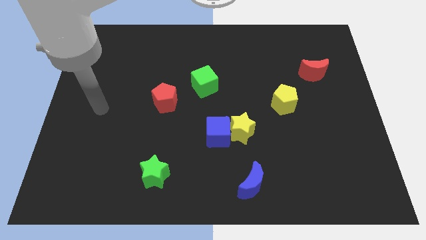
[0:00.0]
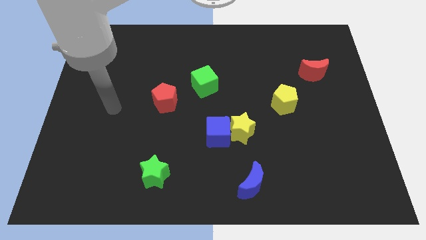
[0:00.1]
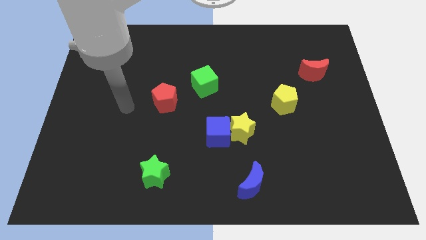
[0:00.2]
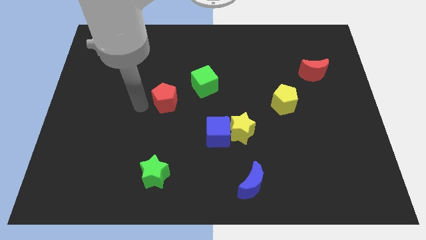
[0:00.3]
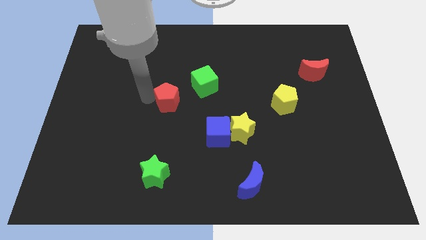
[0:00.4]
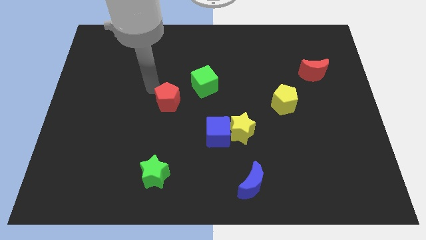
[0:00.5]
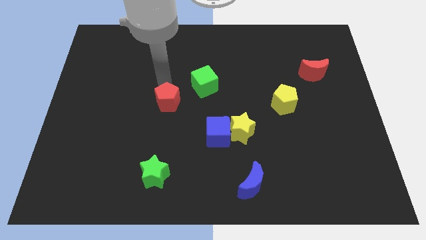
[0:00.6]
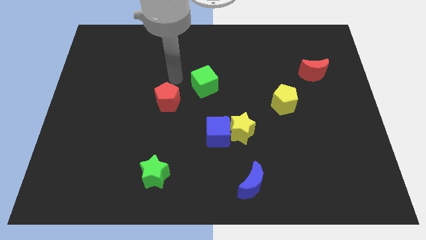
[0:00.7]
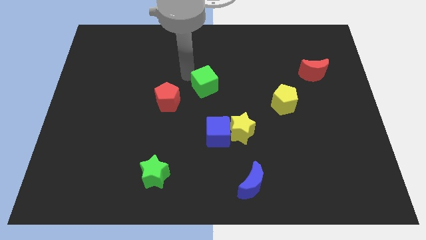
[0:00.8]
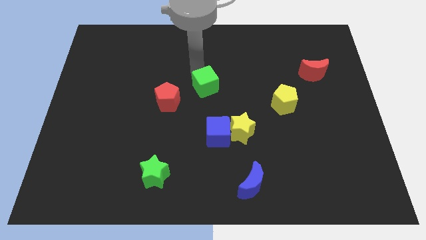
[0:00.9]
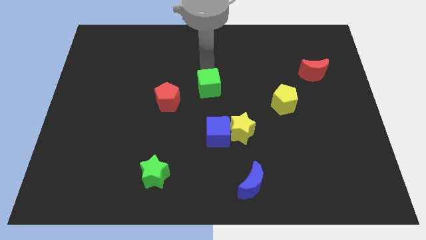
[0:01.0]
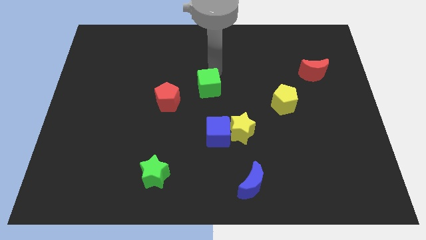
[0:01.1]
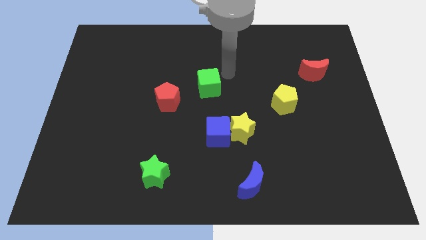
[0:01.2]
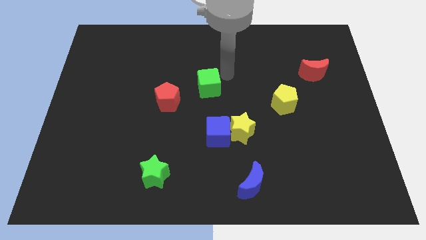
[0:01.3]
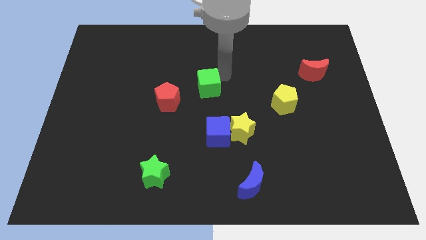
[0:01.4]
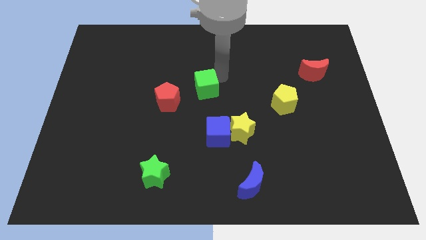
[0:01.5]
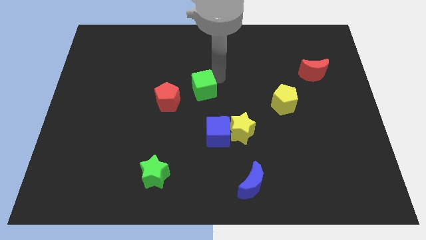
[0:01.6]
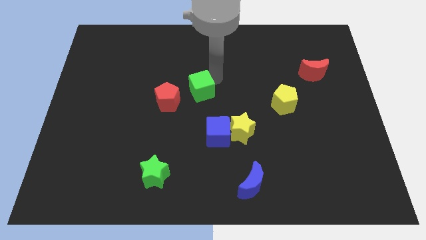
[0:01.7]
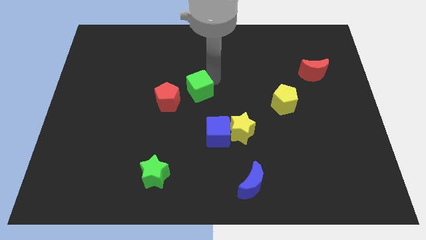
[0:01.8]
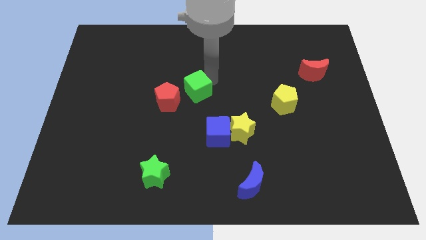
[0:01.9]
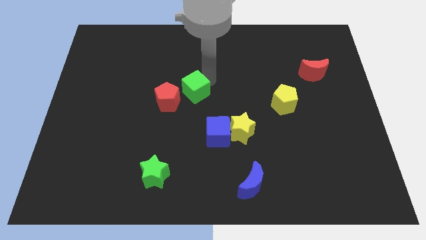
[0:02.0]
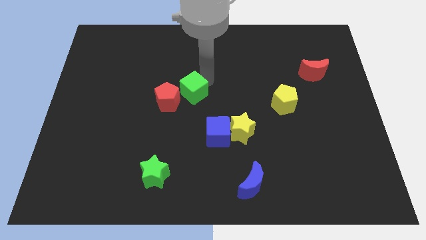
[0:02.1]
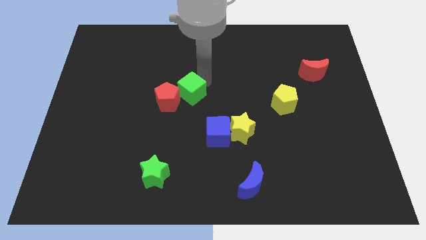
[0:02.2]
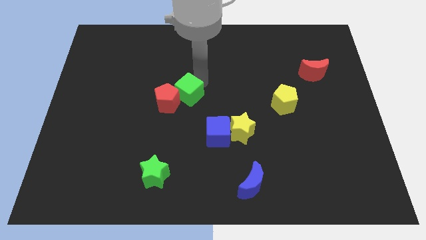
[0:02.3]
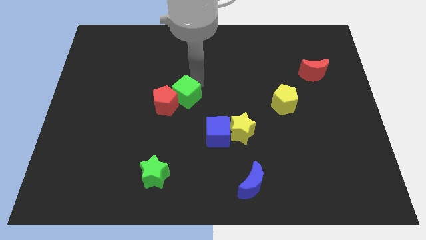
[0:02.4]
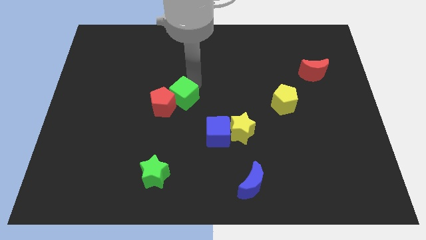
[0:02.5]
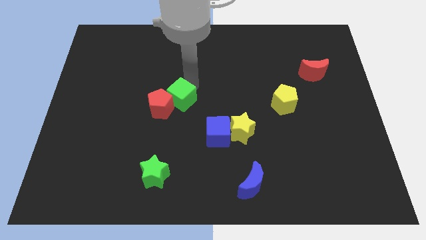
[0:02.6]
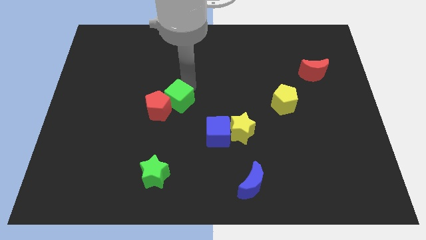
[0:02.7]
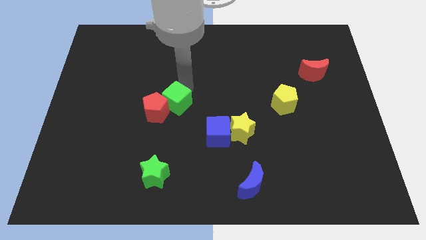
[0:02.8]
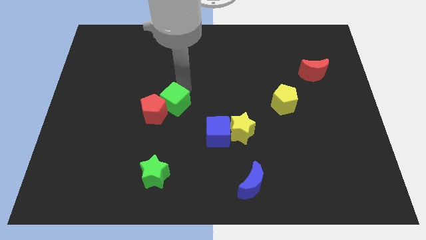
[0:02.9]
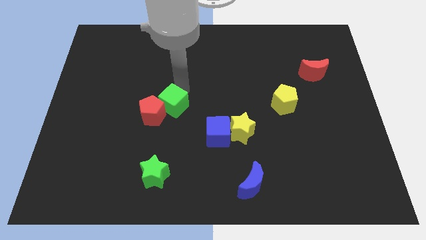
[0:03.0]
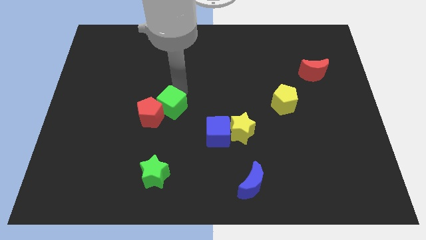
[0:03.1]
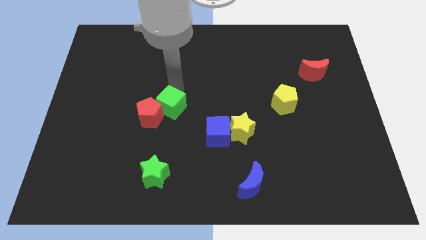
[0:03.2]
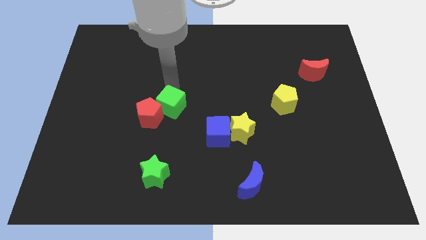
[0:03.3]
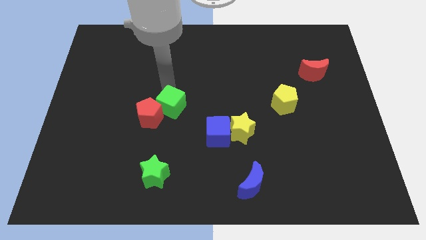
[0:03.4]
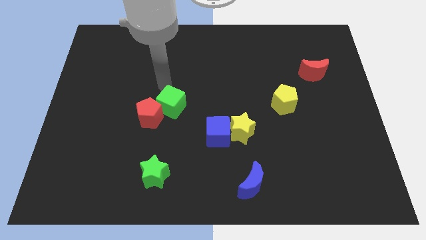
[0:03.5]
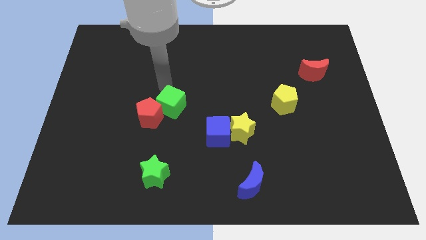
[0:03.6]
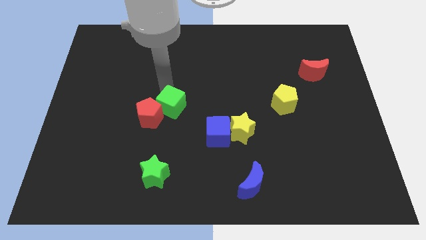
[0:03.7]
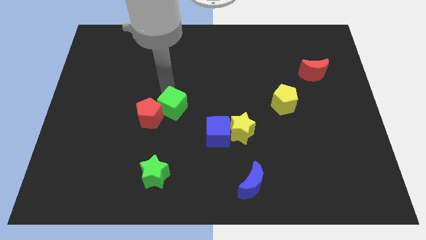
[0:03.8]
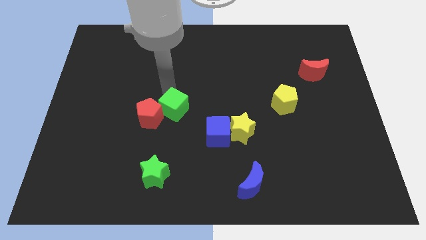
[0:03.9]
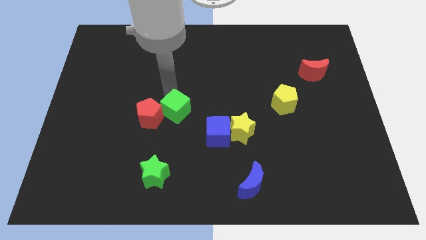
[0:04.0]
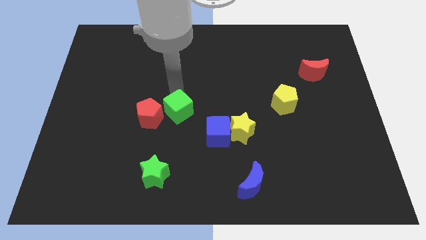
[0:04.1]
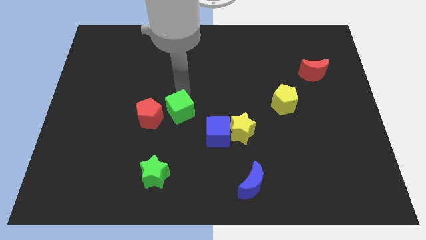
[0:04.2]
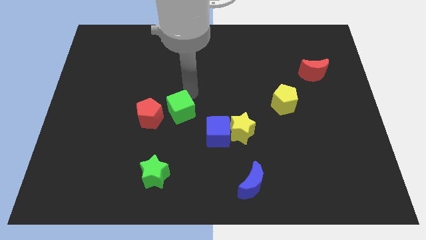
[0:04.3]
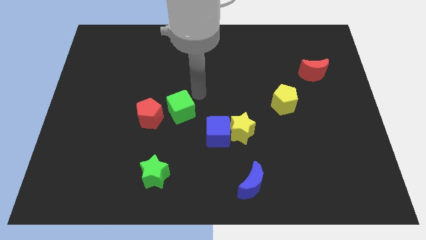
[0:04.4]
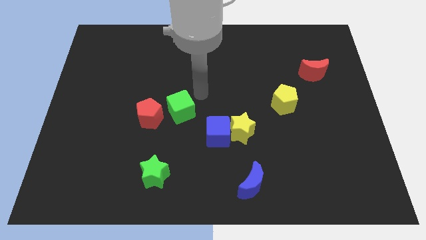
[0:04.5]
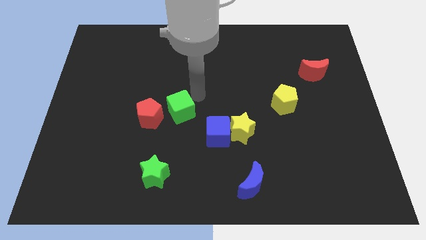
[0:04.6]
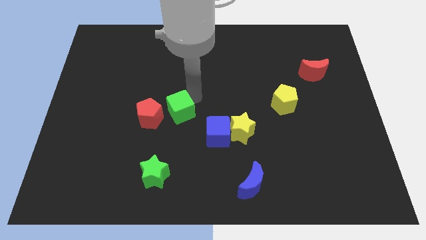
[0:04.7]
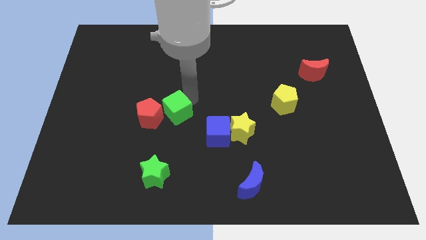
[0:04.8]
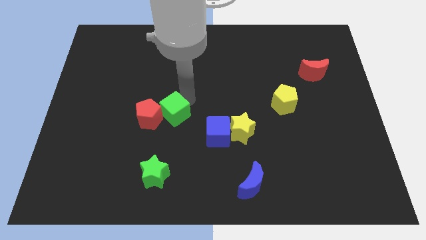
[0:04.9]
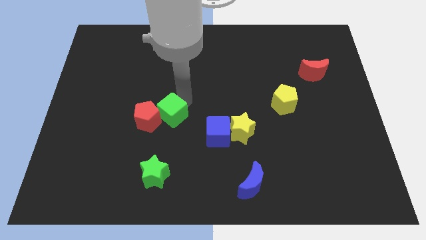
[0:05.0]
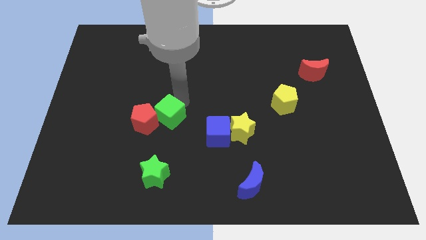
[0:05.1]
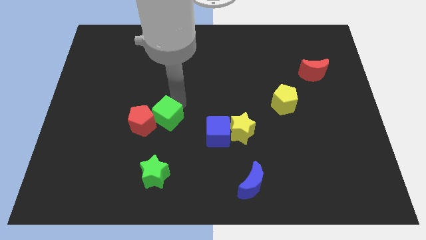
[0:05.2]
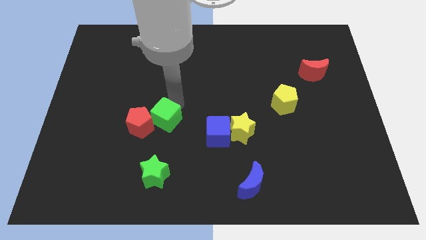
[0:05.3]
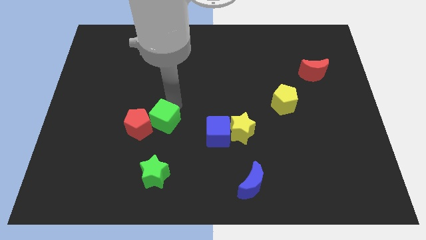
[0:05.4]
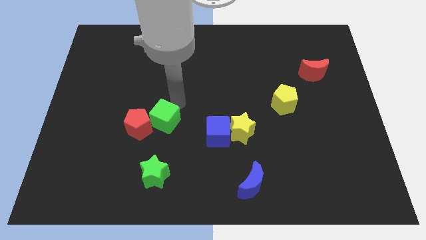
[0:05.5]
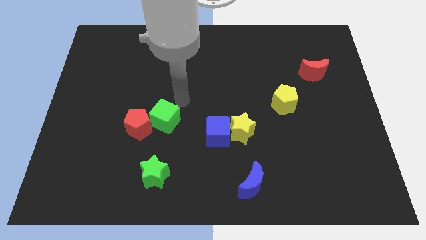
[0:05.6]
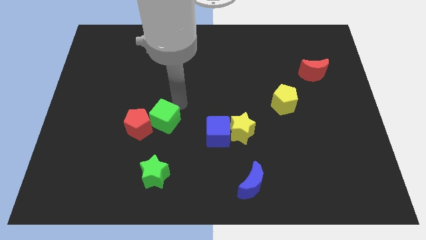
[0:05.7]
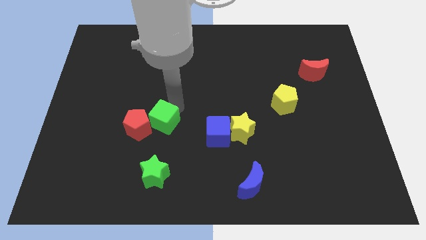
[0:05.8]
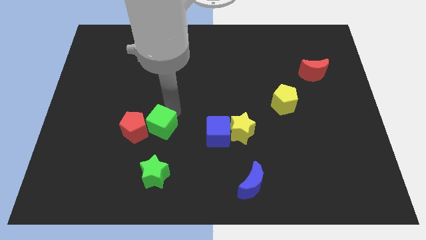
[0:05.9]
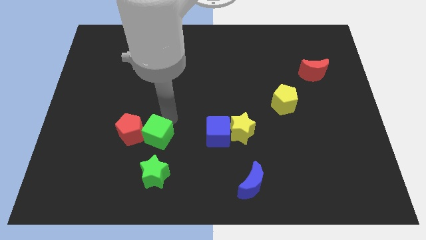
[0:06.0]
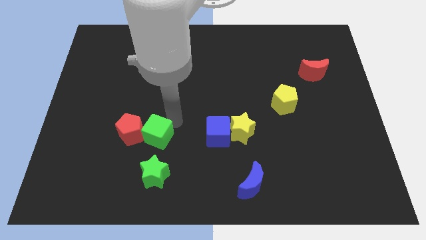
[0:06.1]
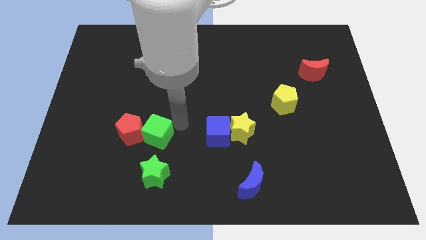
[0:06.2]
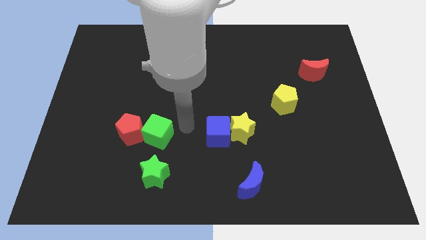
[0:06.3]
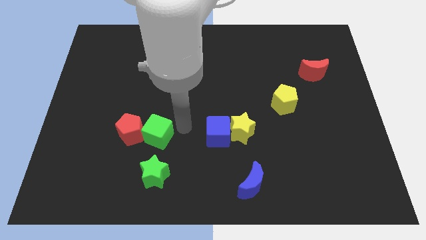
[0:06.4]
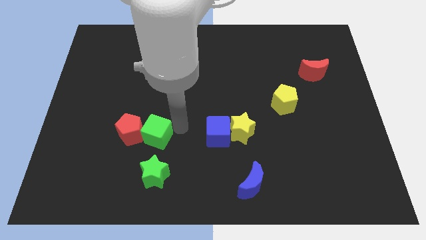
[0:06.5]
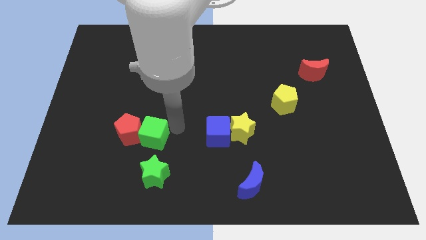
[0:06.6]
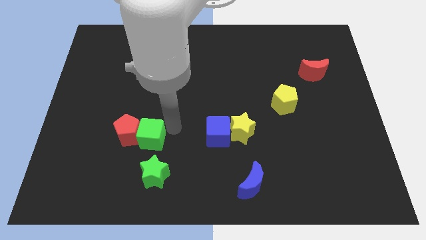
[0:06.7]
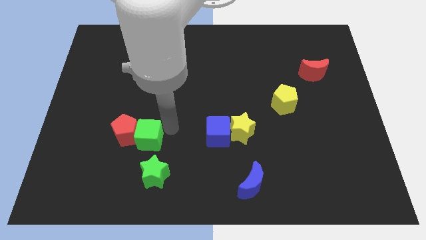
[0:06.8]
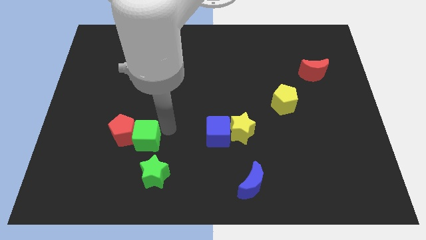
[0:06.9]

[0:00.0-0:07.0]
push the green cube diagonally downwards and to the left

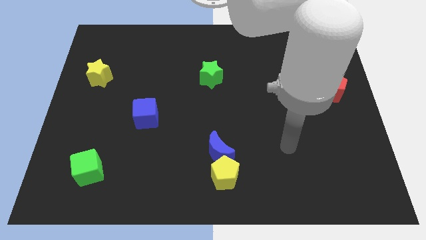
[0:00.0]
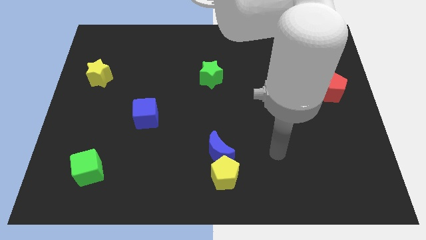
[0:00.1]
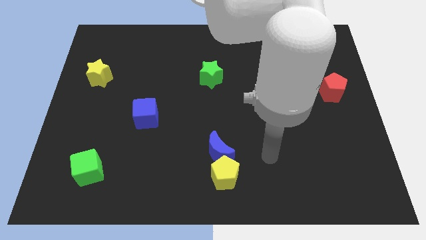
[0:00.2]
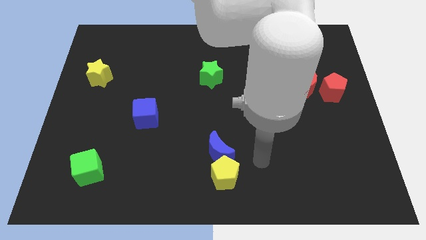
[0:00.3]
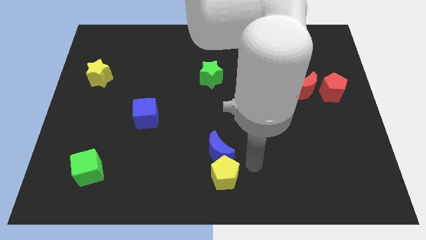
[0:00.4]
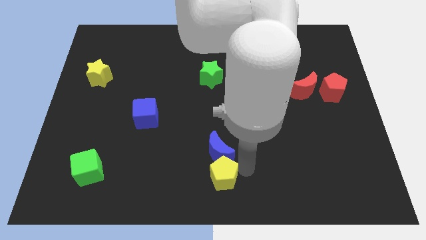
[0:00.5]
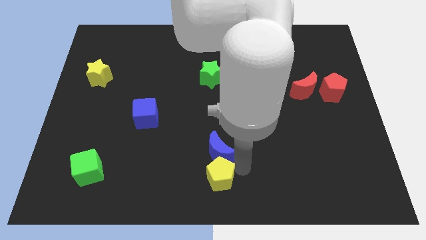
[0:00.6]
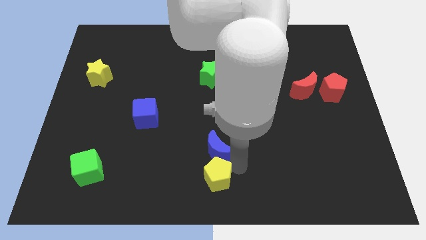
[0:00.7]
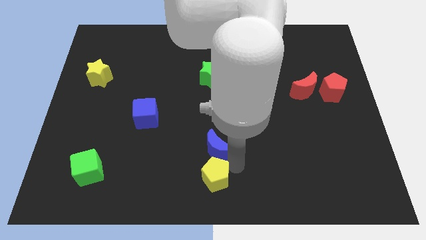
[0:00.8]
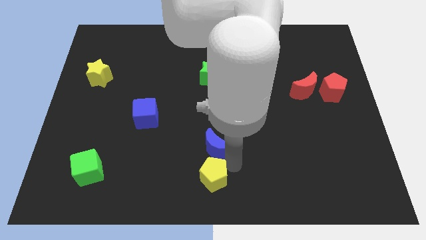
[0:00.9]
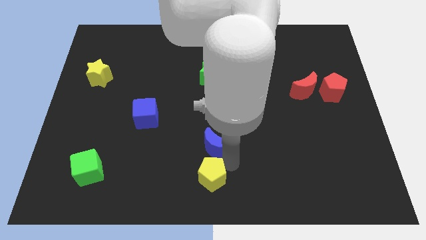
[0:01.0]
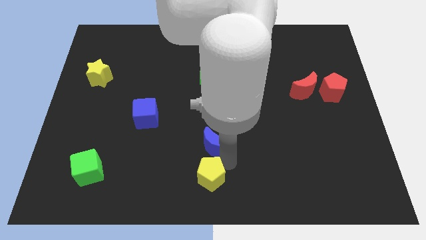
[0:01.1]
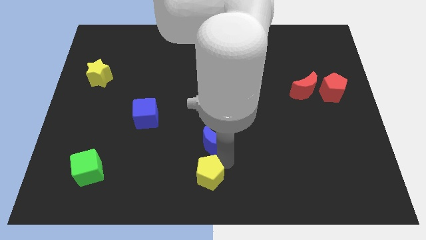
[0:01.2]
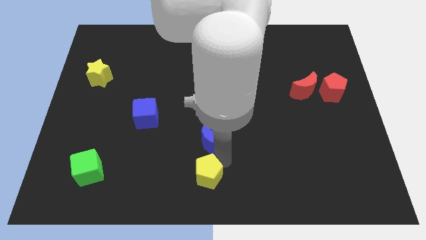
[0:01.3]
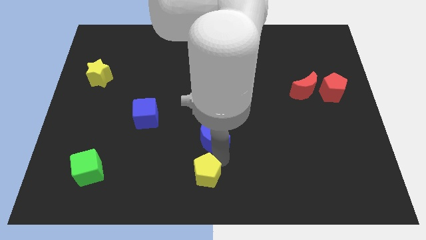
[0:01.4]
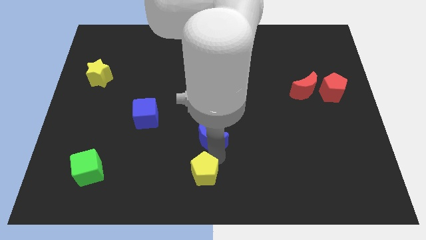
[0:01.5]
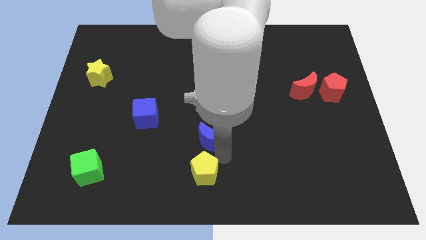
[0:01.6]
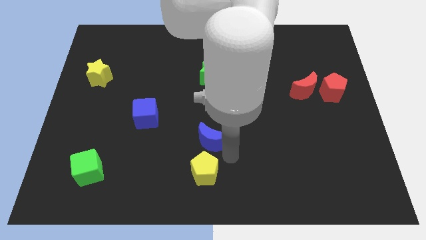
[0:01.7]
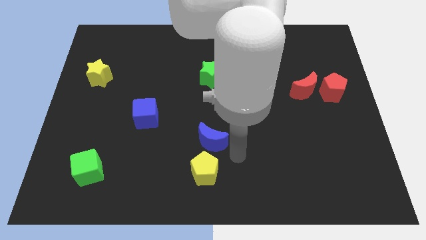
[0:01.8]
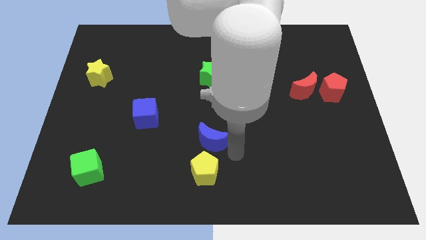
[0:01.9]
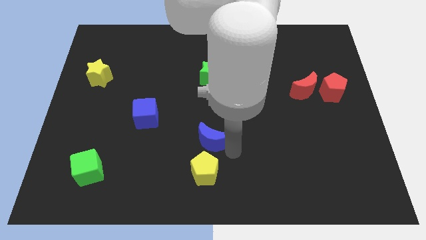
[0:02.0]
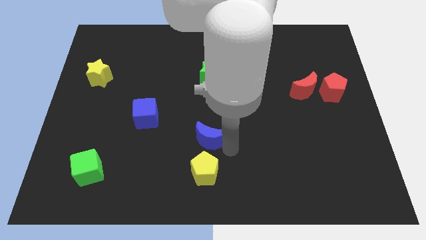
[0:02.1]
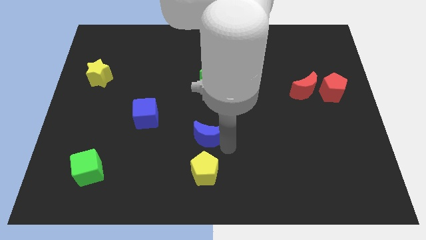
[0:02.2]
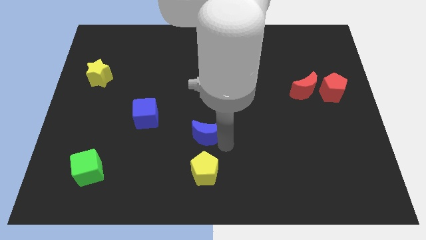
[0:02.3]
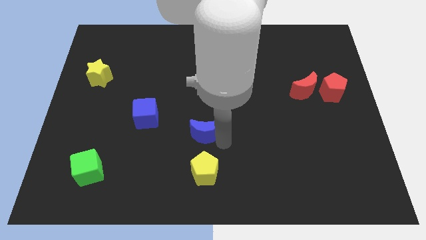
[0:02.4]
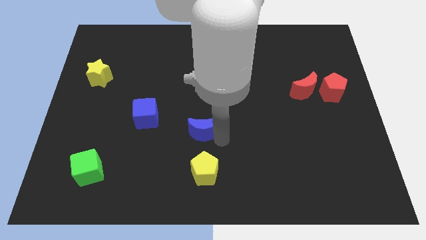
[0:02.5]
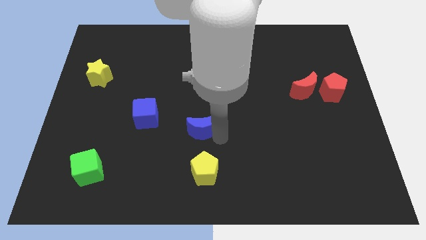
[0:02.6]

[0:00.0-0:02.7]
slide the blue moon up and then left somewhat
